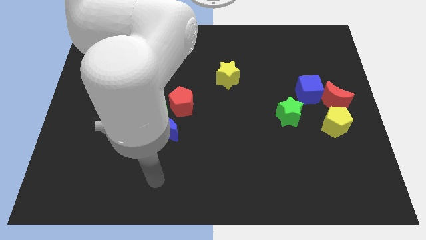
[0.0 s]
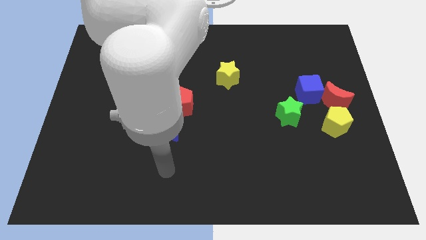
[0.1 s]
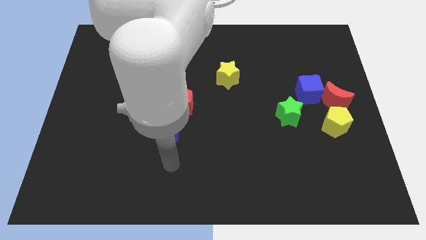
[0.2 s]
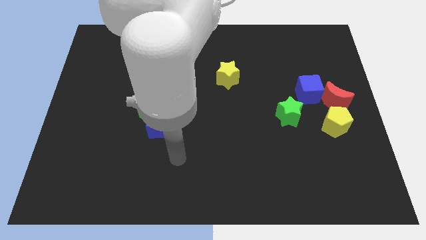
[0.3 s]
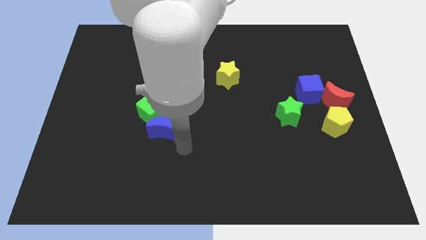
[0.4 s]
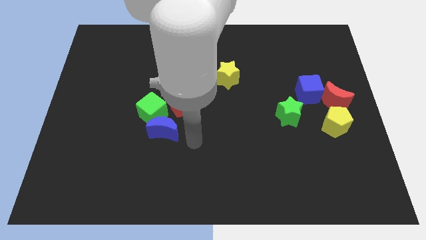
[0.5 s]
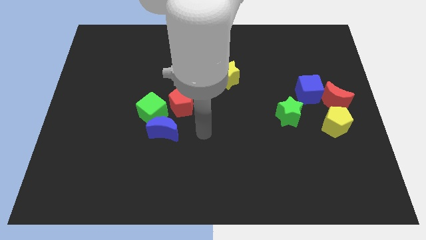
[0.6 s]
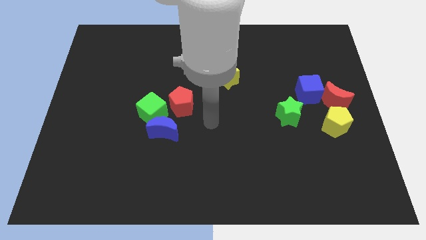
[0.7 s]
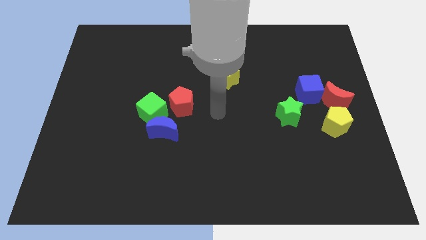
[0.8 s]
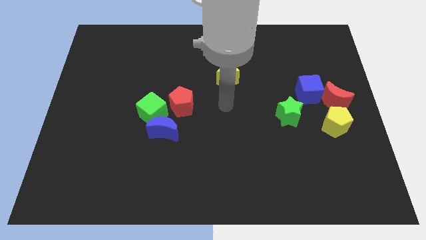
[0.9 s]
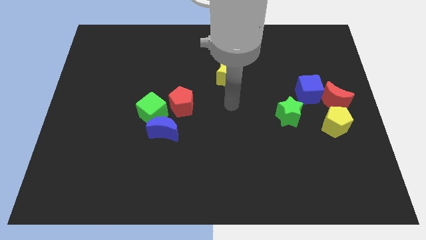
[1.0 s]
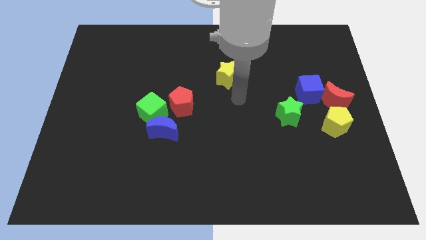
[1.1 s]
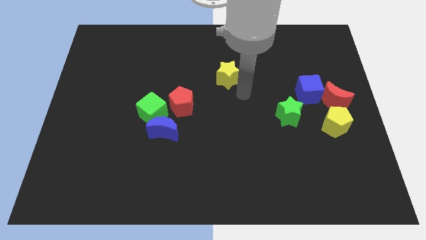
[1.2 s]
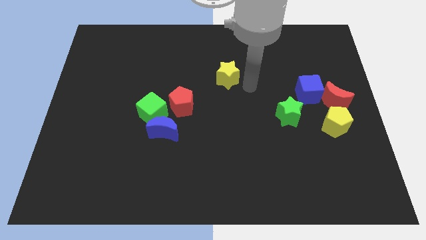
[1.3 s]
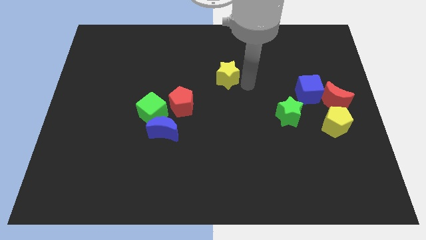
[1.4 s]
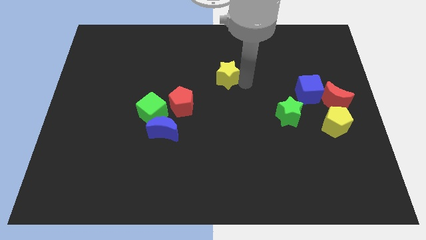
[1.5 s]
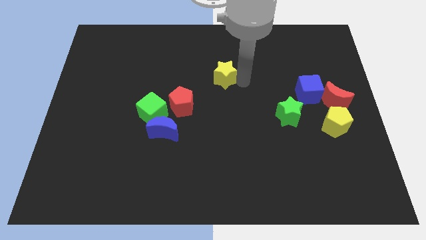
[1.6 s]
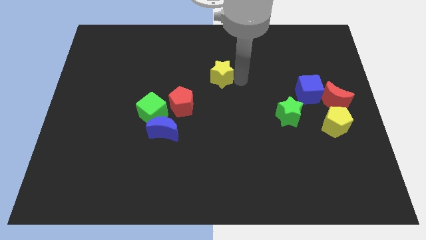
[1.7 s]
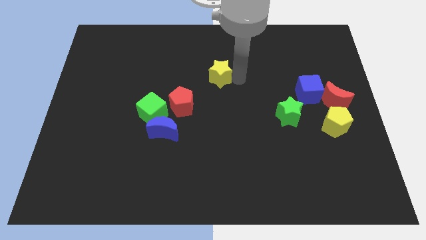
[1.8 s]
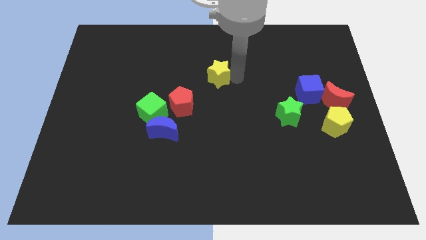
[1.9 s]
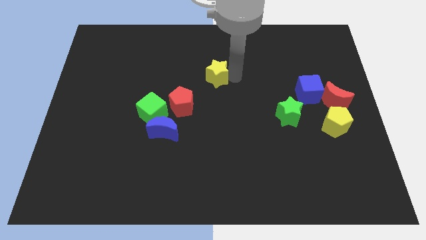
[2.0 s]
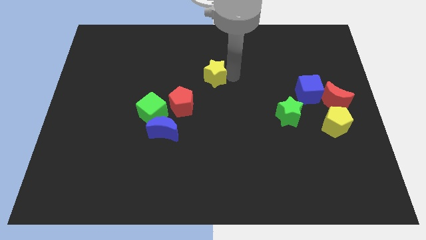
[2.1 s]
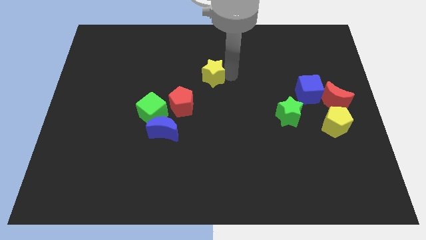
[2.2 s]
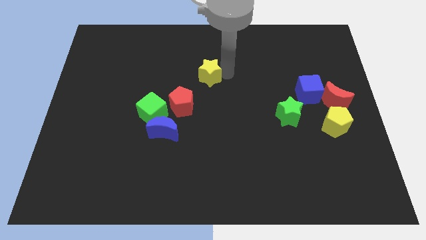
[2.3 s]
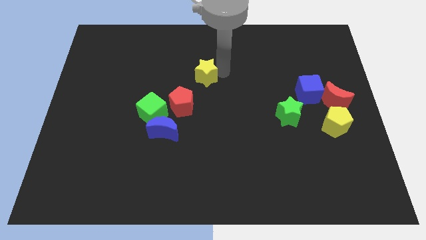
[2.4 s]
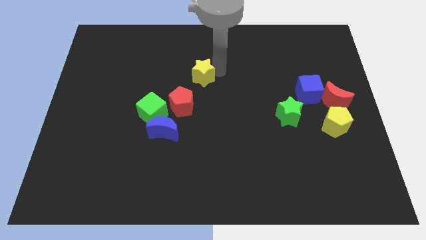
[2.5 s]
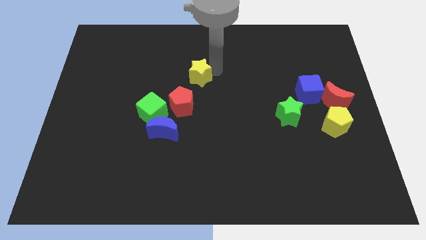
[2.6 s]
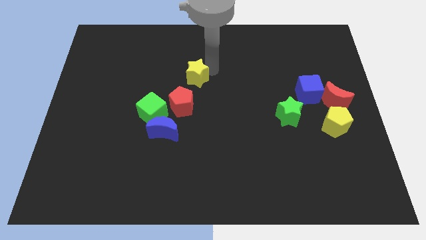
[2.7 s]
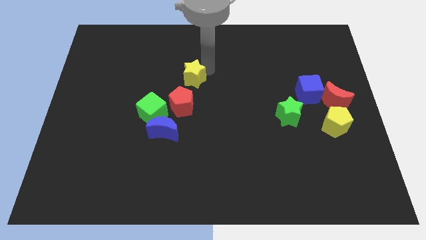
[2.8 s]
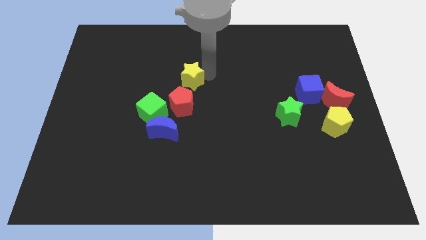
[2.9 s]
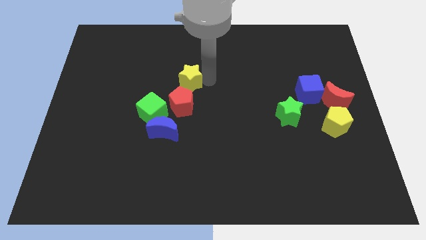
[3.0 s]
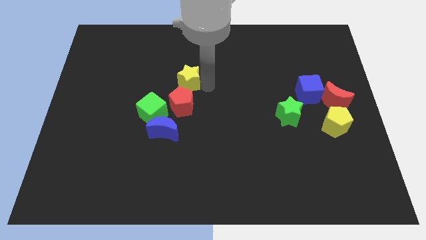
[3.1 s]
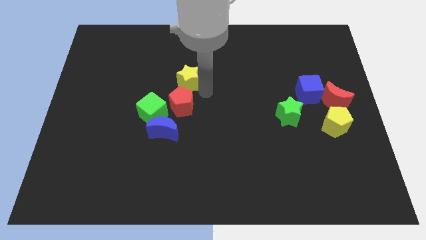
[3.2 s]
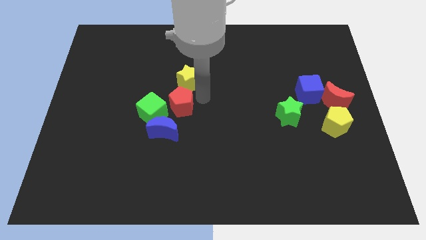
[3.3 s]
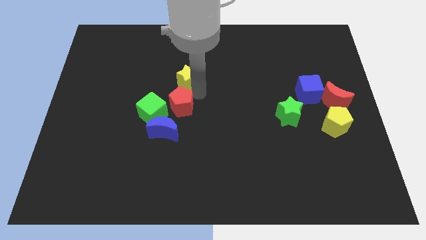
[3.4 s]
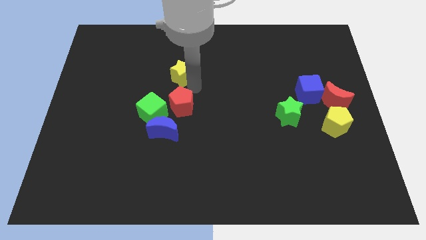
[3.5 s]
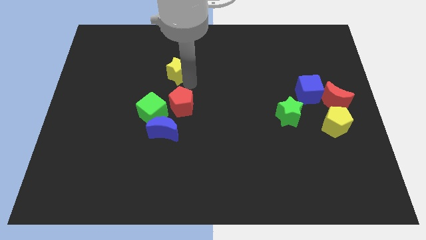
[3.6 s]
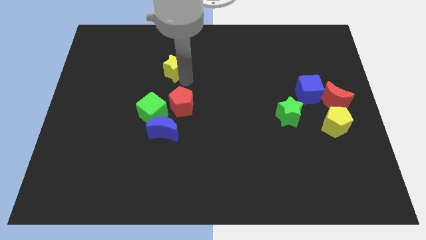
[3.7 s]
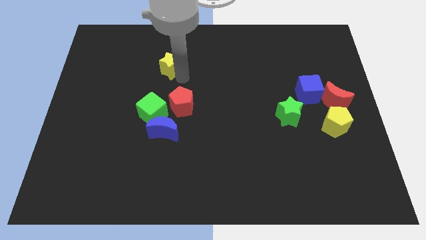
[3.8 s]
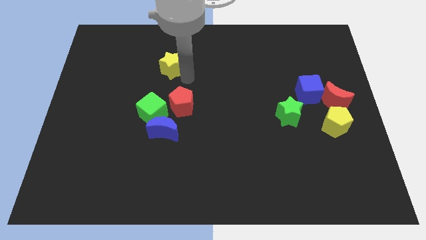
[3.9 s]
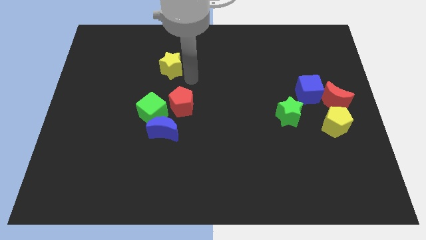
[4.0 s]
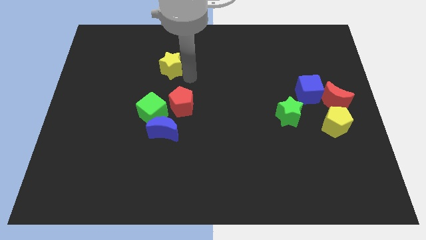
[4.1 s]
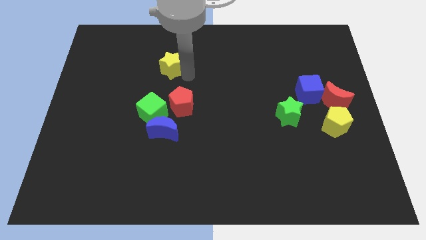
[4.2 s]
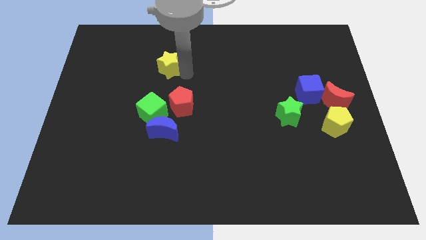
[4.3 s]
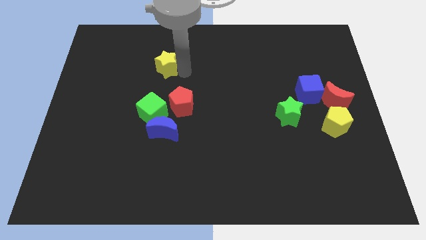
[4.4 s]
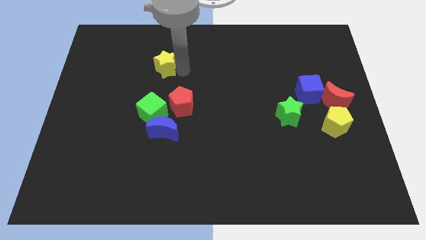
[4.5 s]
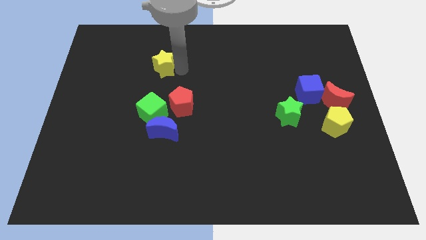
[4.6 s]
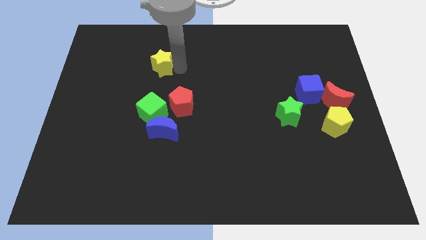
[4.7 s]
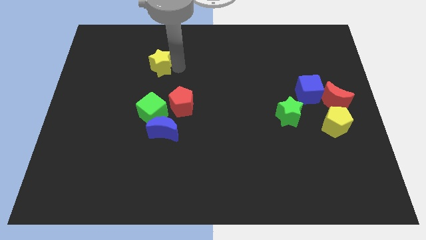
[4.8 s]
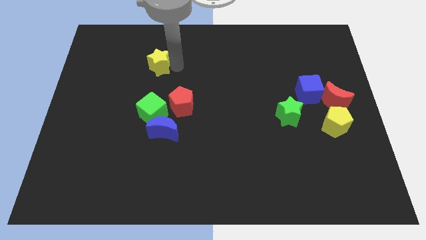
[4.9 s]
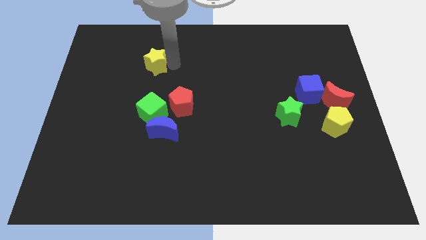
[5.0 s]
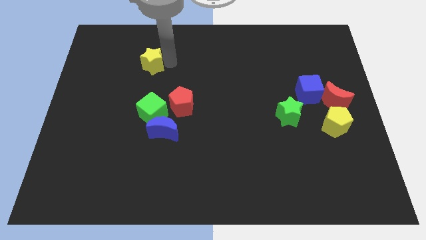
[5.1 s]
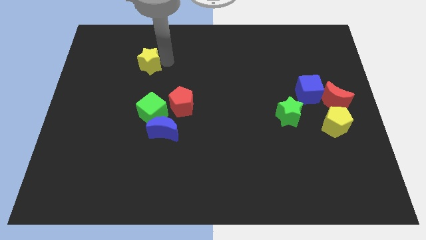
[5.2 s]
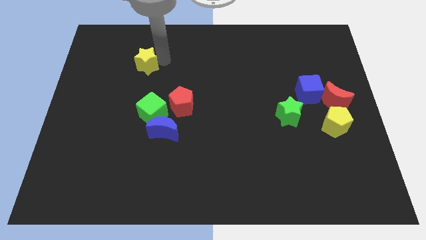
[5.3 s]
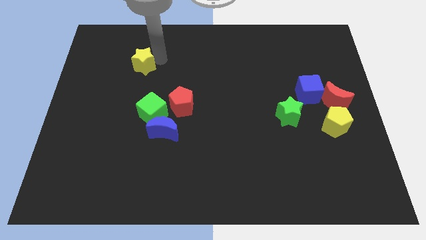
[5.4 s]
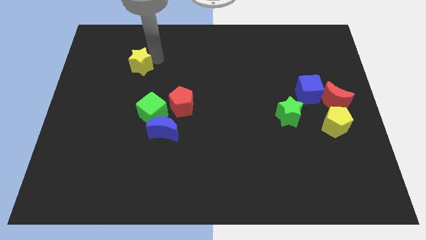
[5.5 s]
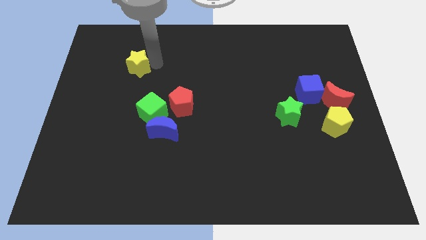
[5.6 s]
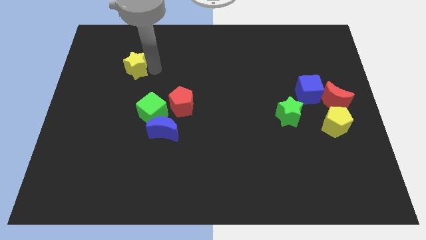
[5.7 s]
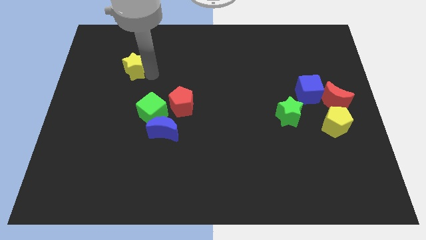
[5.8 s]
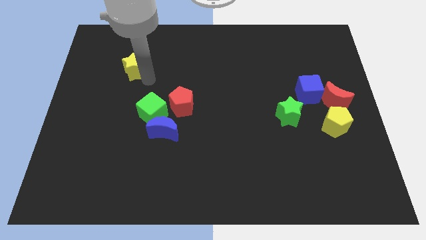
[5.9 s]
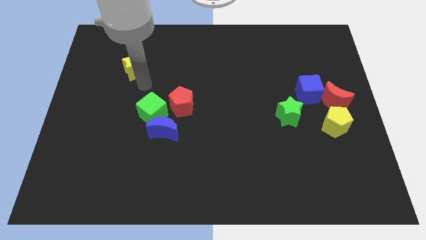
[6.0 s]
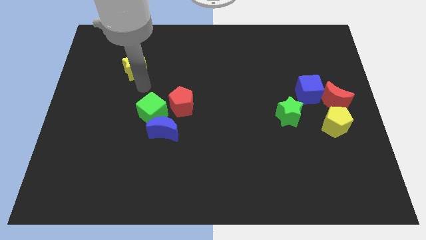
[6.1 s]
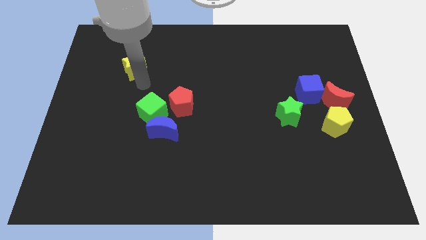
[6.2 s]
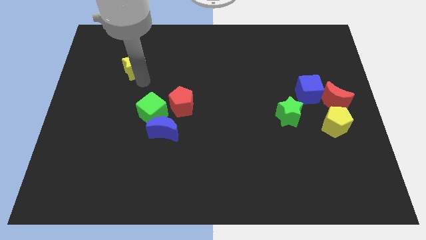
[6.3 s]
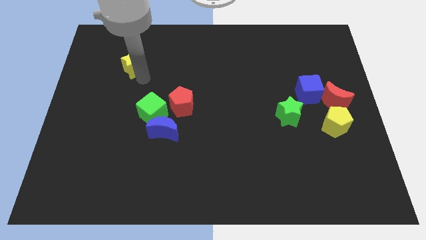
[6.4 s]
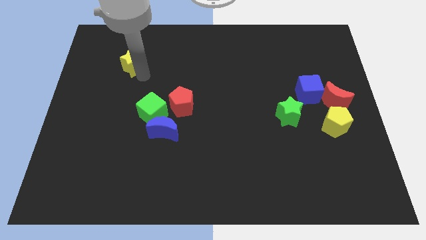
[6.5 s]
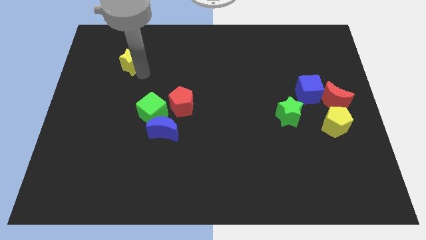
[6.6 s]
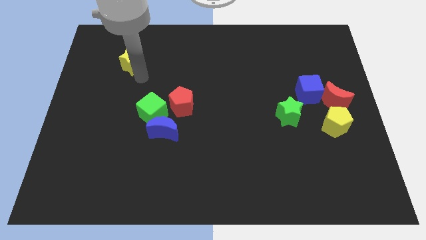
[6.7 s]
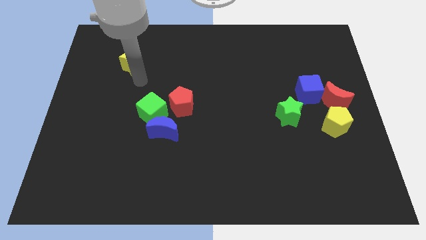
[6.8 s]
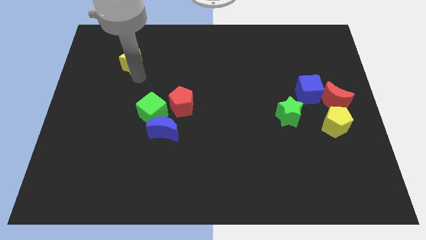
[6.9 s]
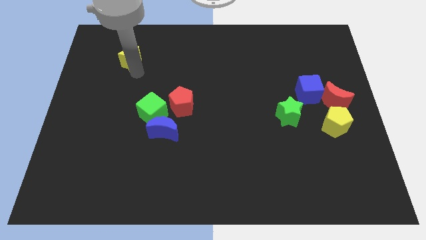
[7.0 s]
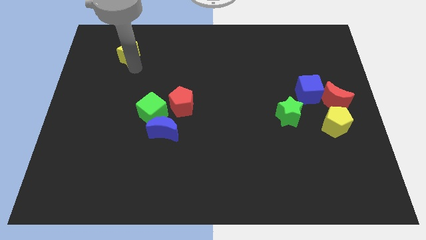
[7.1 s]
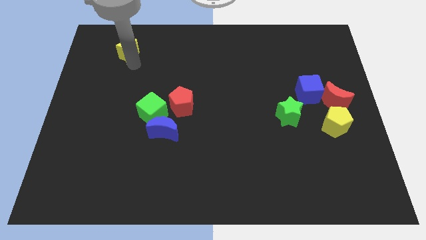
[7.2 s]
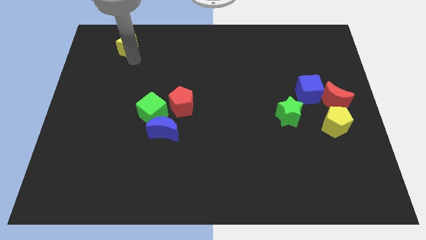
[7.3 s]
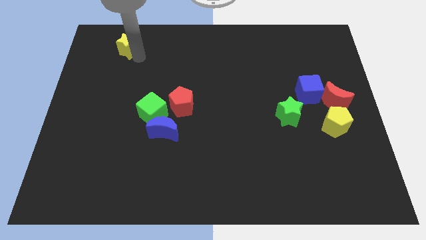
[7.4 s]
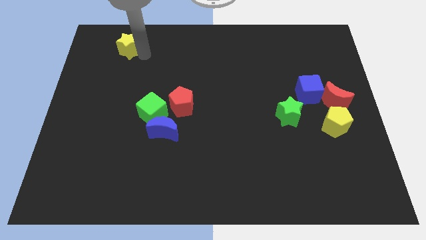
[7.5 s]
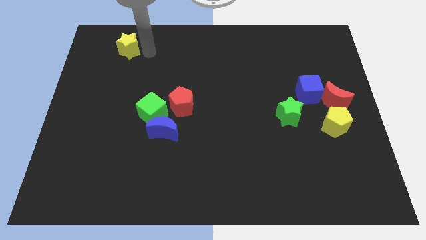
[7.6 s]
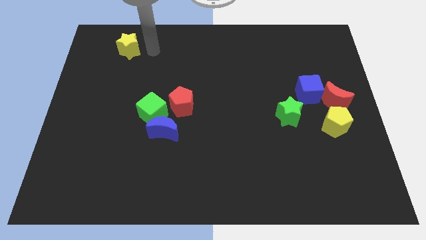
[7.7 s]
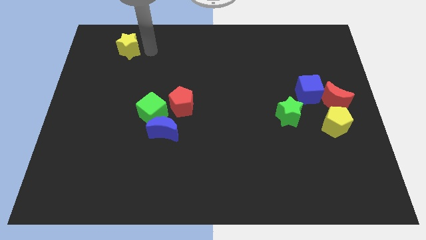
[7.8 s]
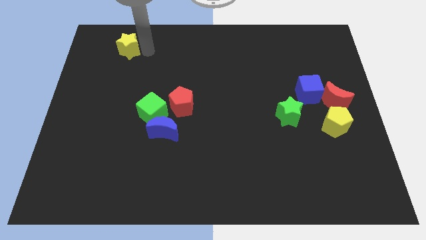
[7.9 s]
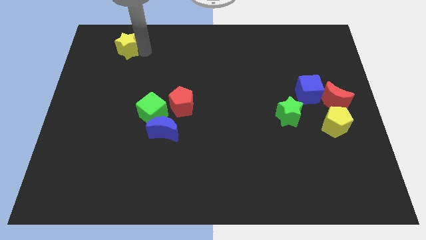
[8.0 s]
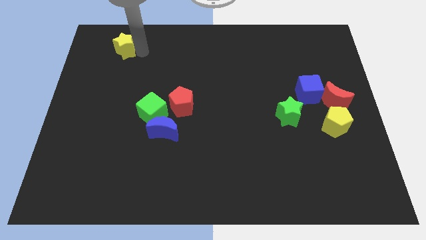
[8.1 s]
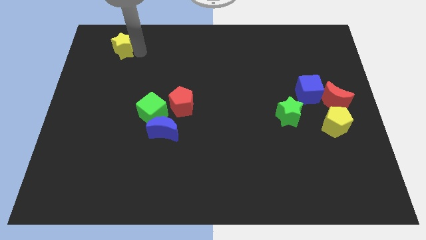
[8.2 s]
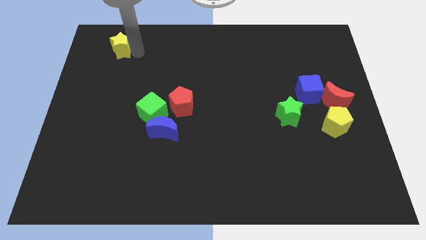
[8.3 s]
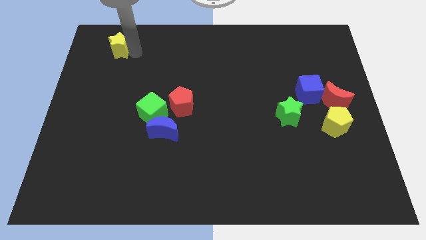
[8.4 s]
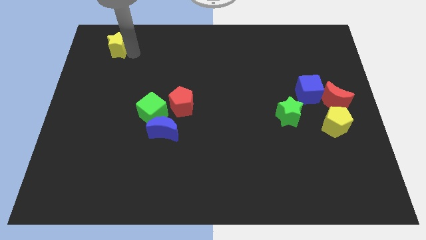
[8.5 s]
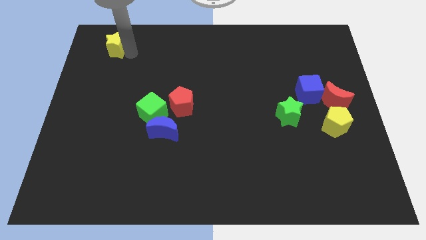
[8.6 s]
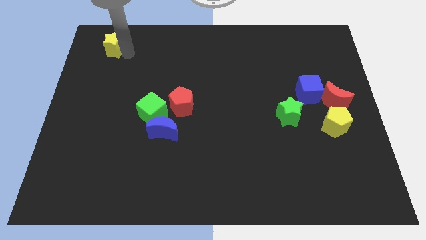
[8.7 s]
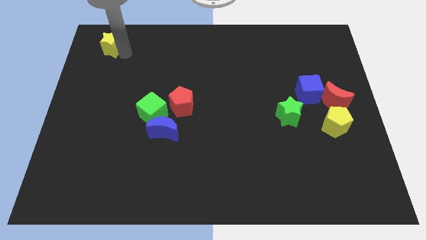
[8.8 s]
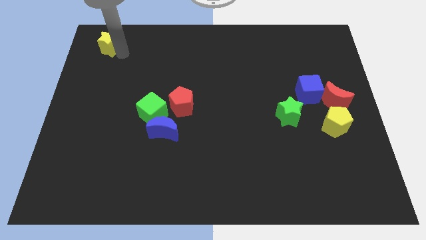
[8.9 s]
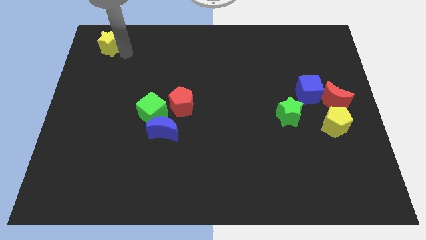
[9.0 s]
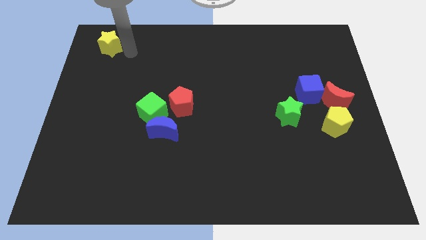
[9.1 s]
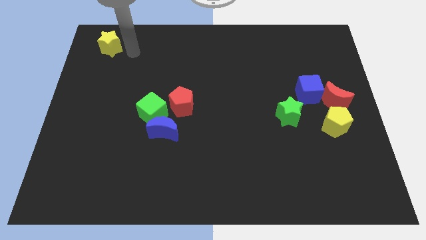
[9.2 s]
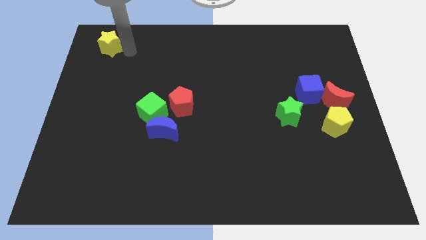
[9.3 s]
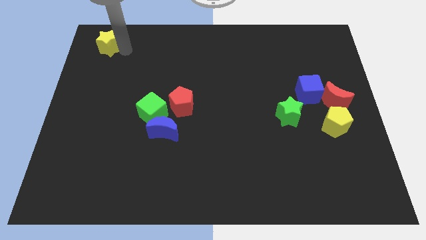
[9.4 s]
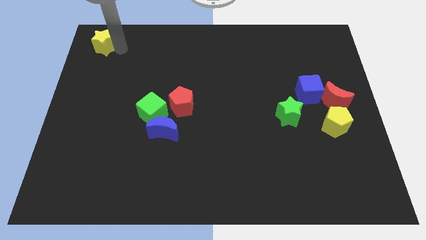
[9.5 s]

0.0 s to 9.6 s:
move the yellow star to the top left corner
